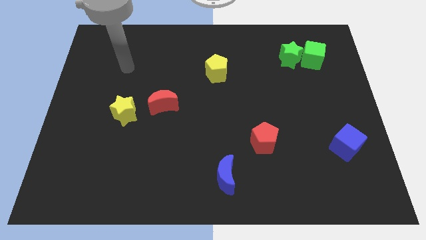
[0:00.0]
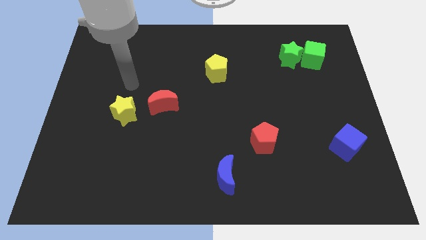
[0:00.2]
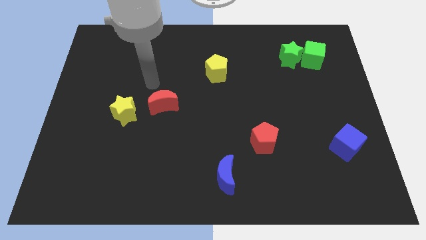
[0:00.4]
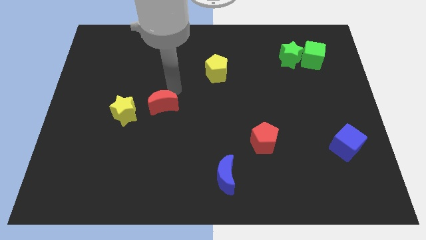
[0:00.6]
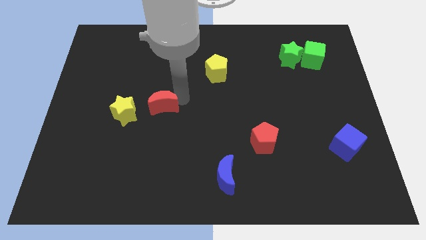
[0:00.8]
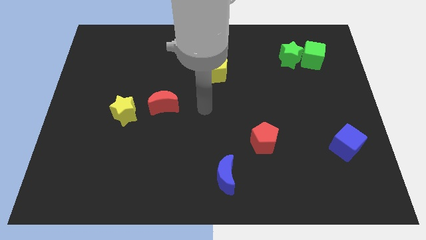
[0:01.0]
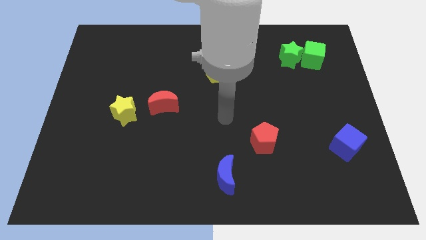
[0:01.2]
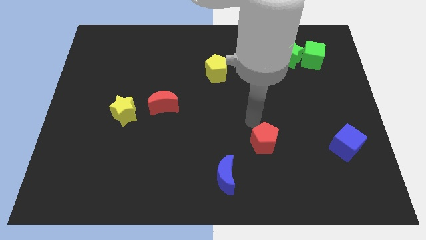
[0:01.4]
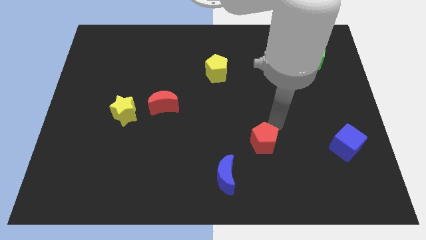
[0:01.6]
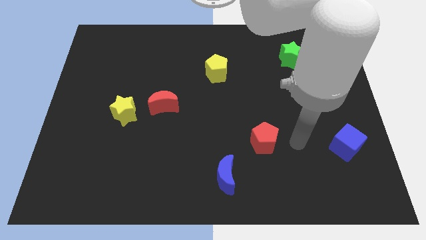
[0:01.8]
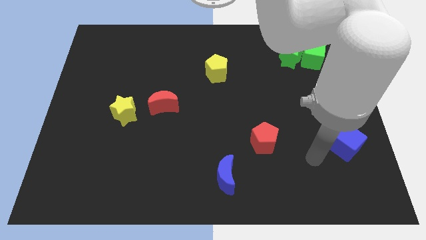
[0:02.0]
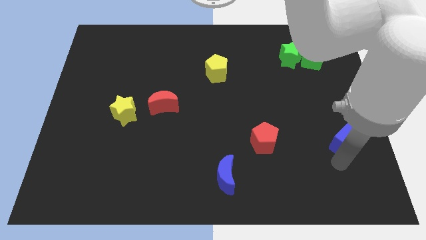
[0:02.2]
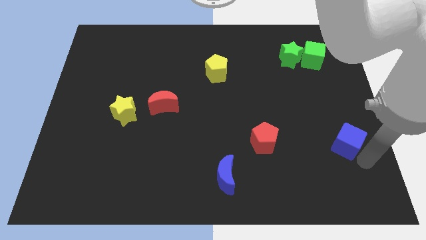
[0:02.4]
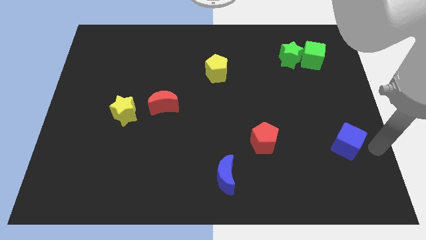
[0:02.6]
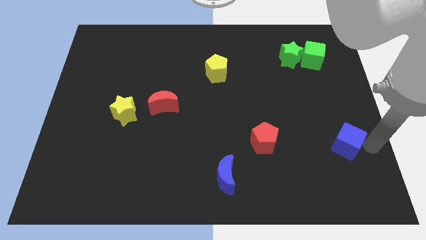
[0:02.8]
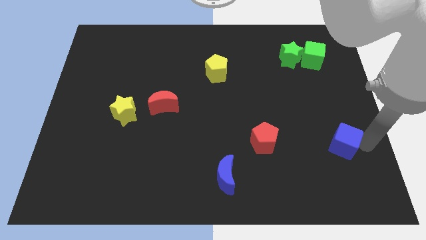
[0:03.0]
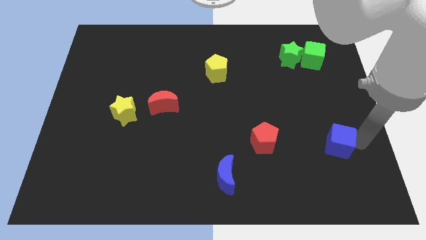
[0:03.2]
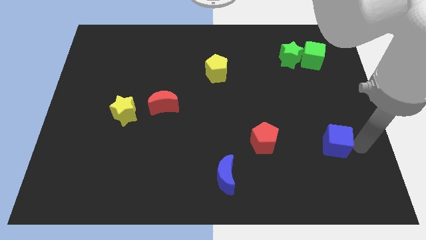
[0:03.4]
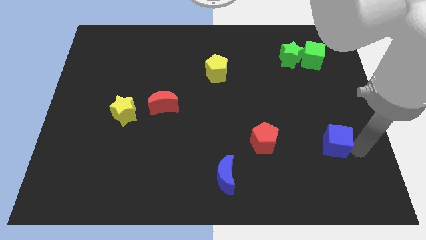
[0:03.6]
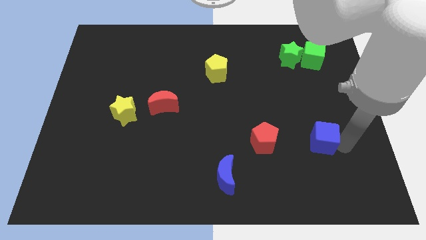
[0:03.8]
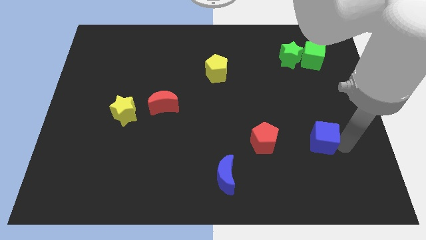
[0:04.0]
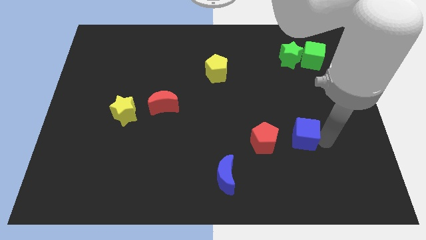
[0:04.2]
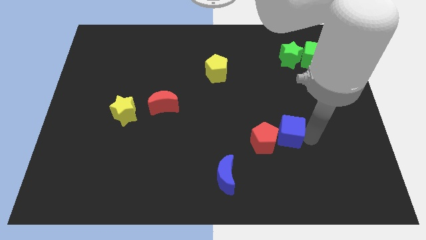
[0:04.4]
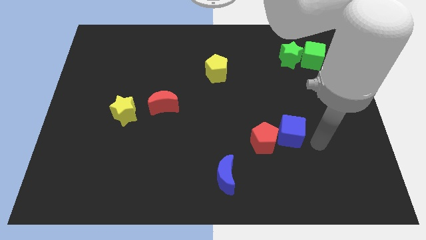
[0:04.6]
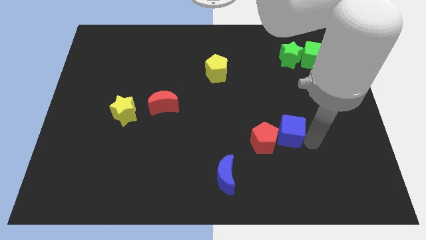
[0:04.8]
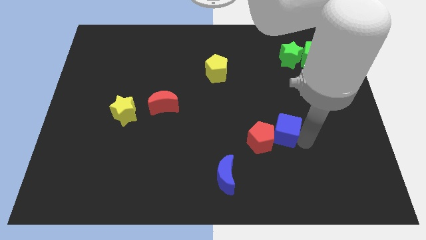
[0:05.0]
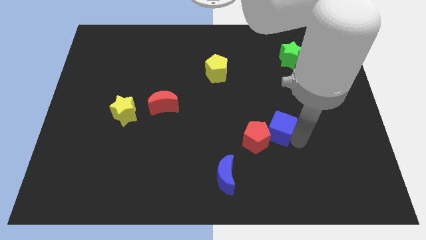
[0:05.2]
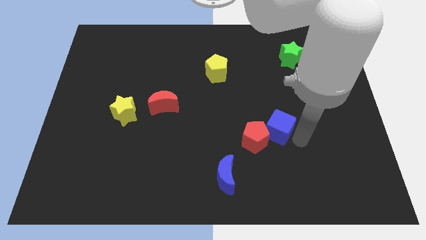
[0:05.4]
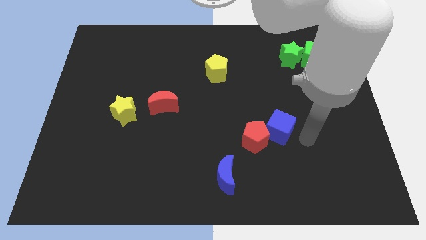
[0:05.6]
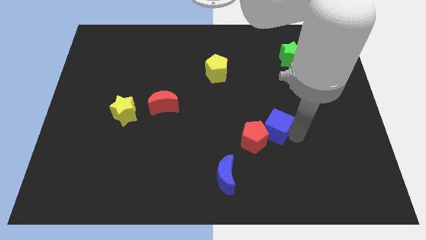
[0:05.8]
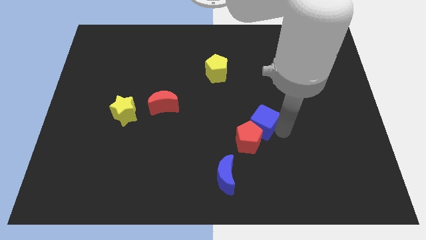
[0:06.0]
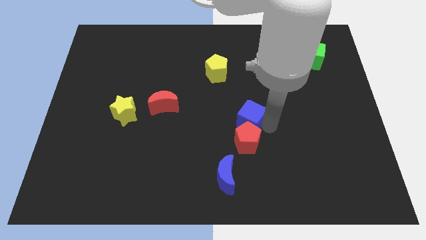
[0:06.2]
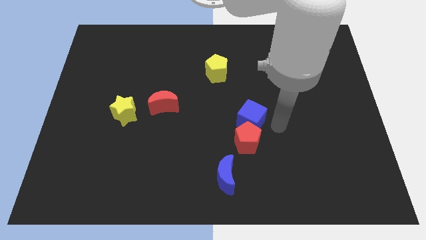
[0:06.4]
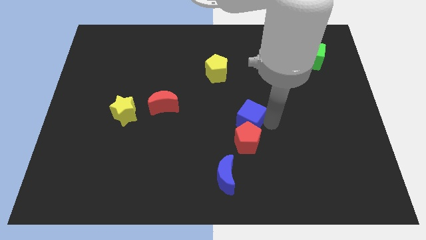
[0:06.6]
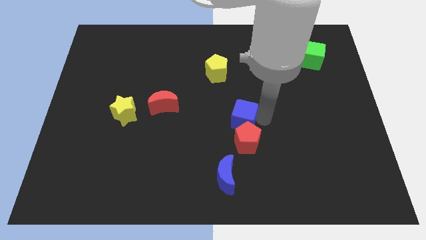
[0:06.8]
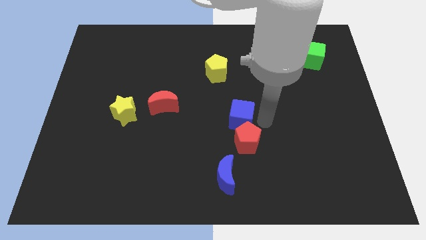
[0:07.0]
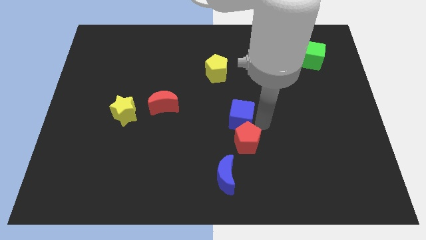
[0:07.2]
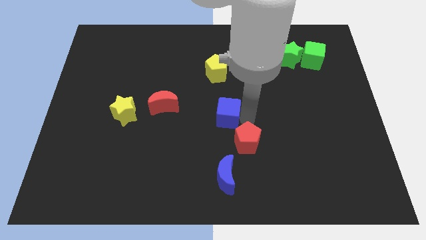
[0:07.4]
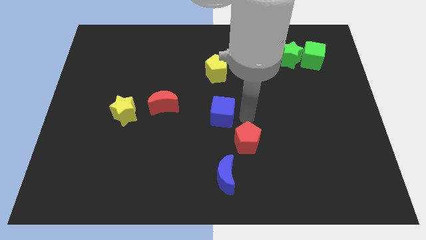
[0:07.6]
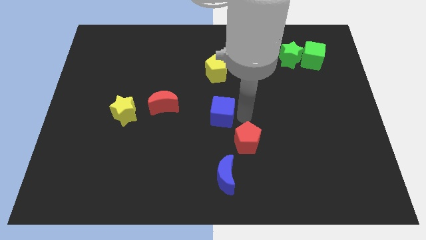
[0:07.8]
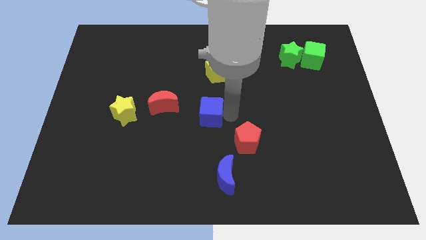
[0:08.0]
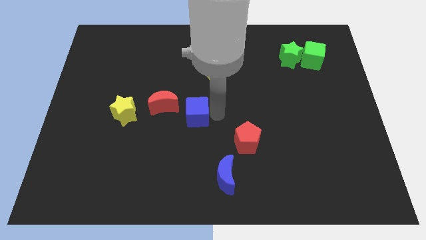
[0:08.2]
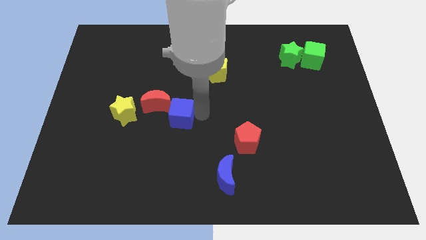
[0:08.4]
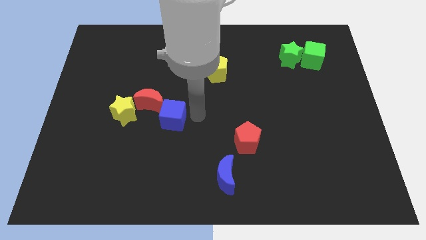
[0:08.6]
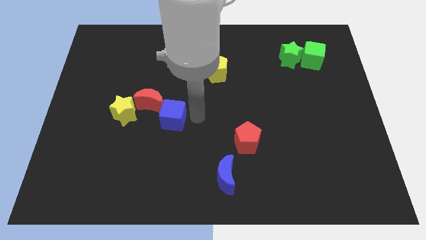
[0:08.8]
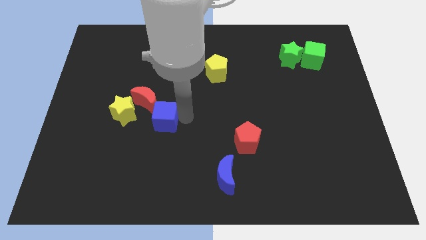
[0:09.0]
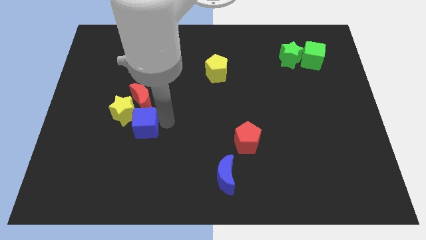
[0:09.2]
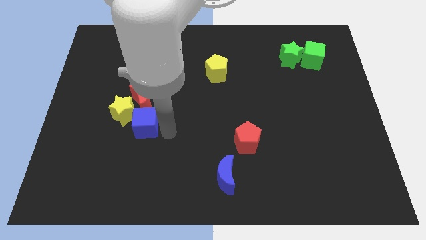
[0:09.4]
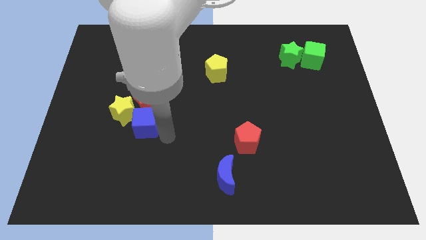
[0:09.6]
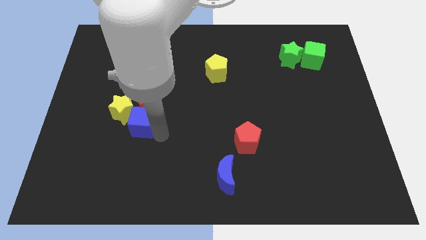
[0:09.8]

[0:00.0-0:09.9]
move the blue cube next to the yellow star

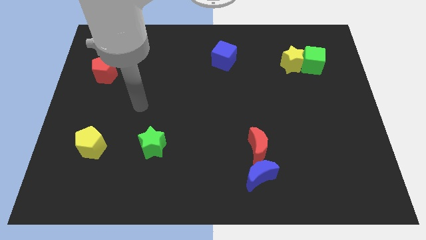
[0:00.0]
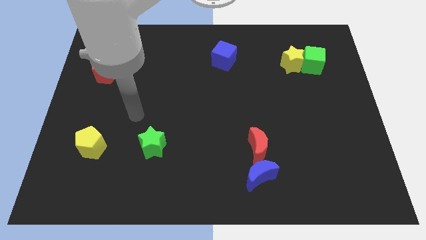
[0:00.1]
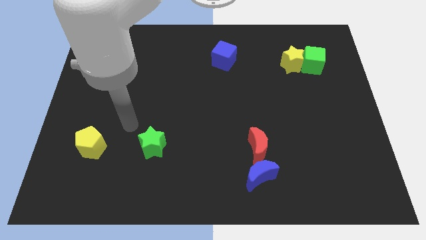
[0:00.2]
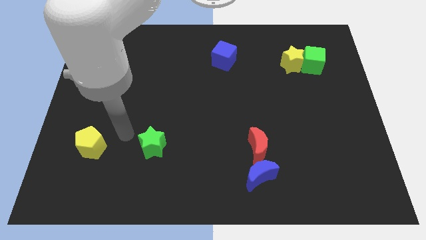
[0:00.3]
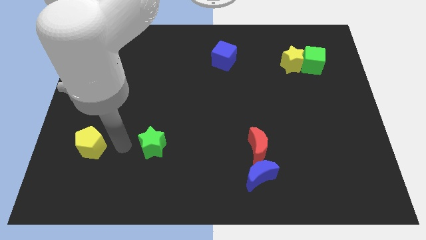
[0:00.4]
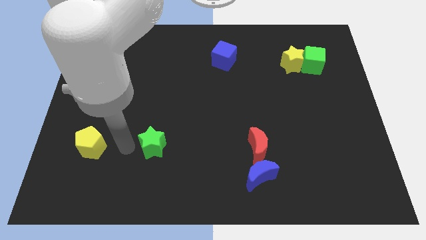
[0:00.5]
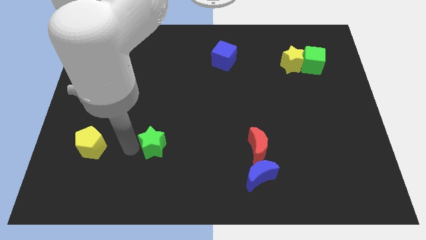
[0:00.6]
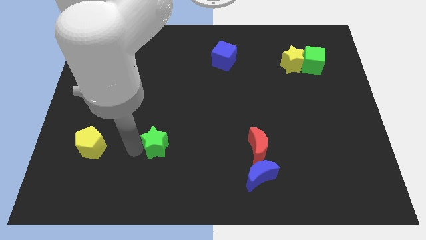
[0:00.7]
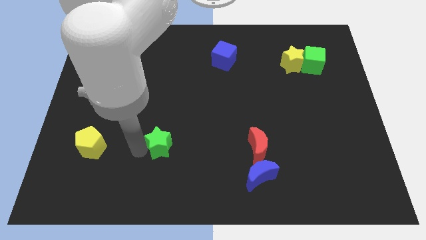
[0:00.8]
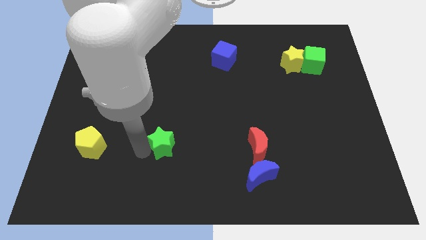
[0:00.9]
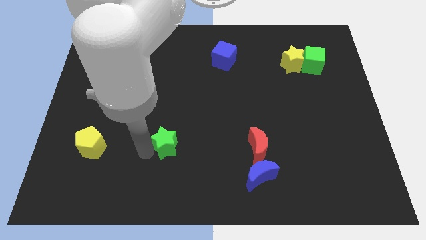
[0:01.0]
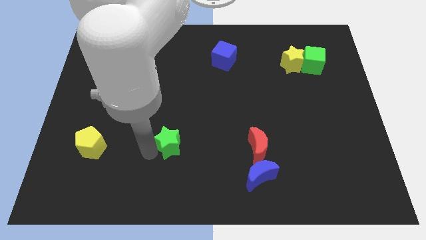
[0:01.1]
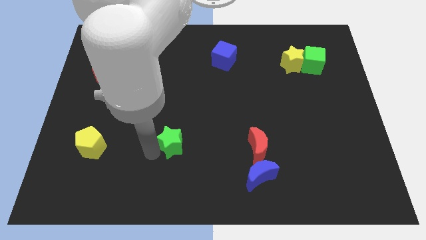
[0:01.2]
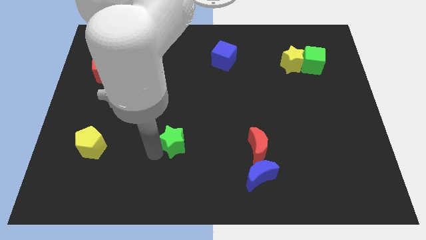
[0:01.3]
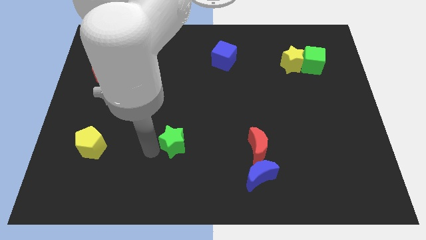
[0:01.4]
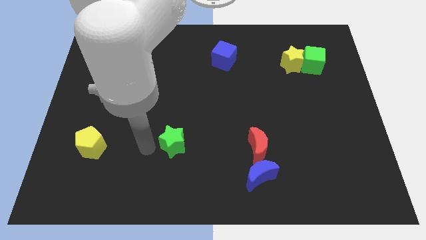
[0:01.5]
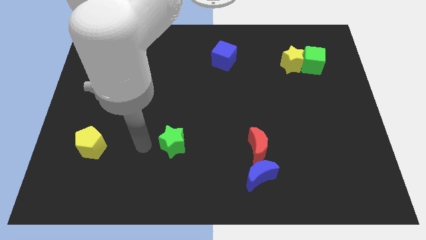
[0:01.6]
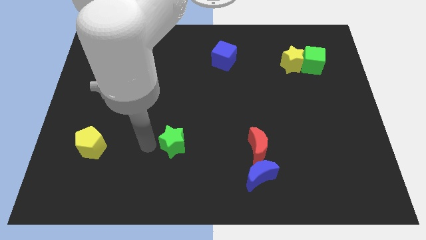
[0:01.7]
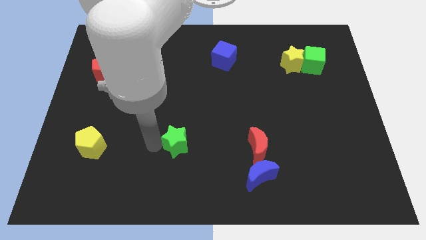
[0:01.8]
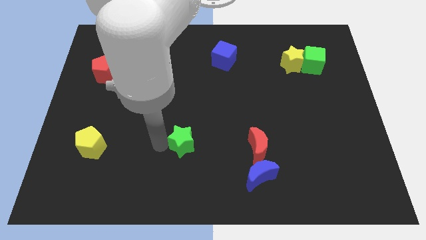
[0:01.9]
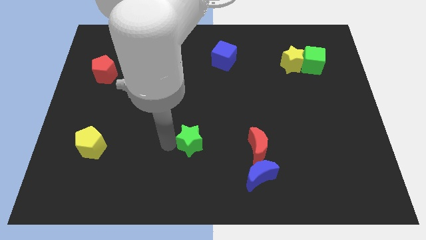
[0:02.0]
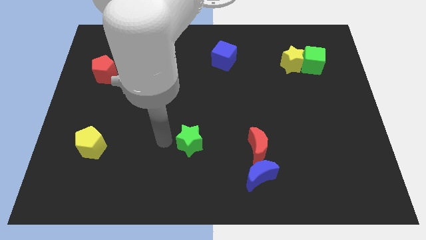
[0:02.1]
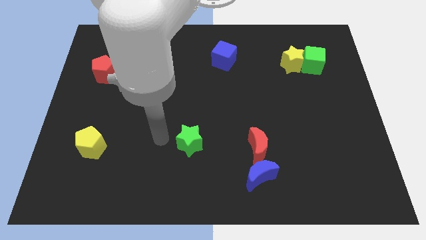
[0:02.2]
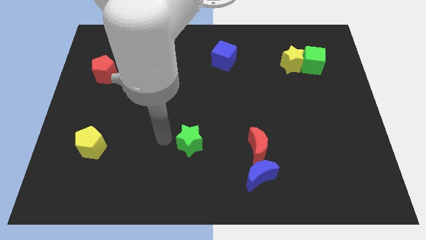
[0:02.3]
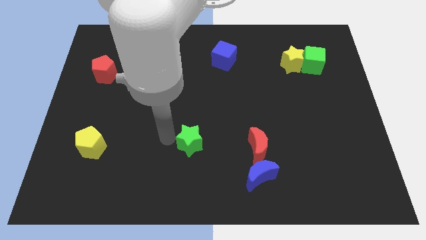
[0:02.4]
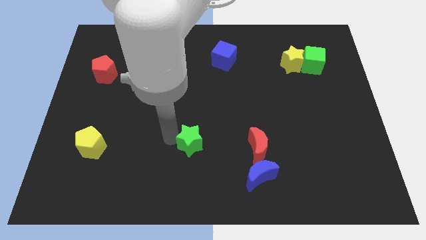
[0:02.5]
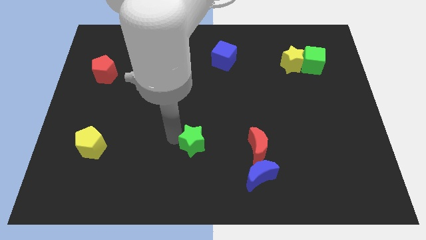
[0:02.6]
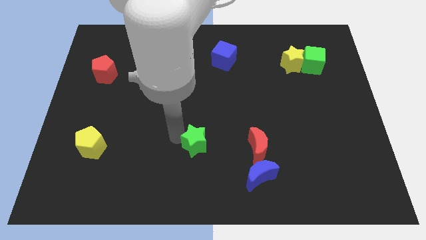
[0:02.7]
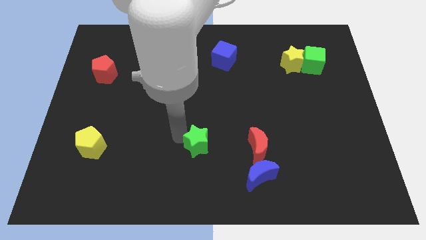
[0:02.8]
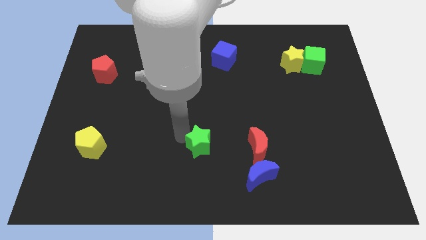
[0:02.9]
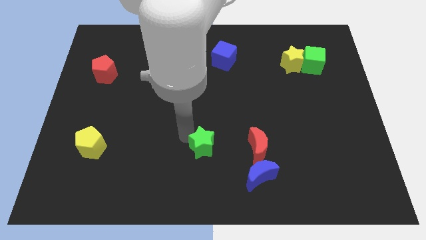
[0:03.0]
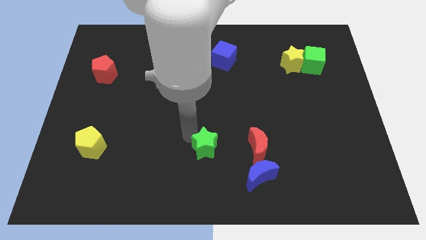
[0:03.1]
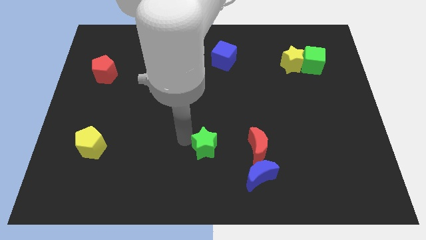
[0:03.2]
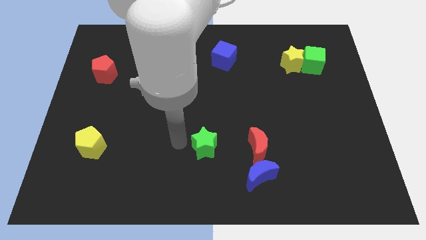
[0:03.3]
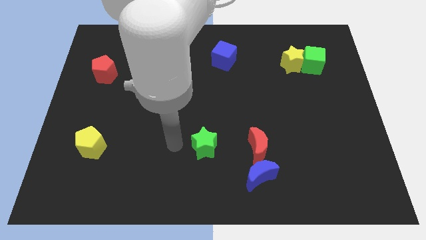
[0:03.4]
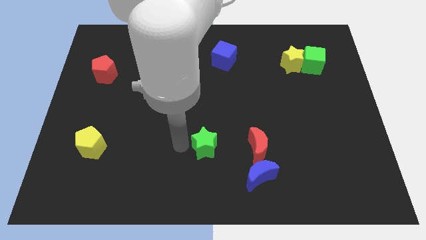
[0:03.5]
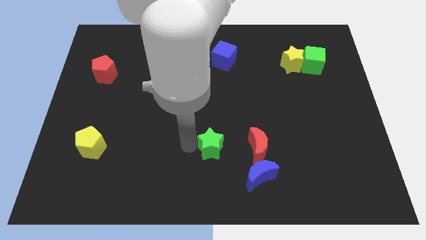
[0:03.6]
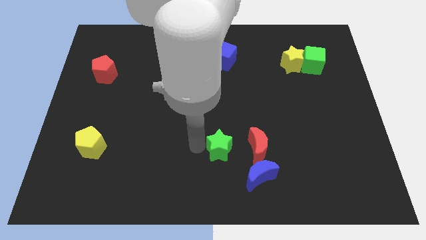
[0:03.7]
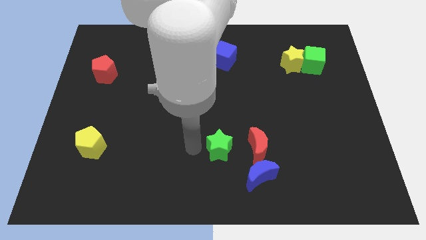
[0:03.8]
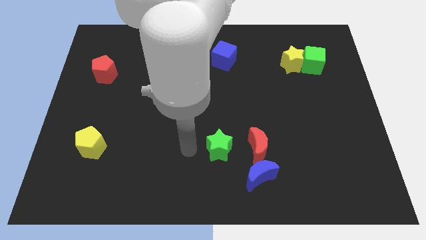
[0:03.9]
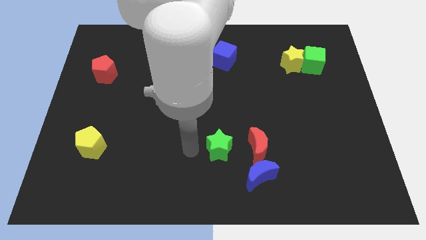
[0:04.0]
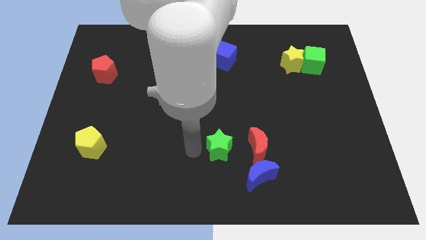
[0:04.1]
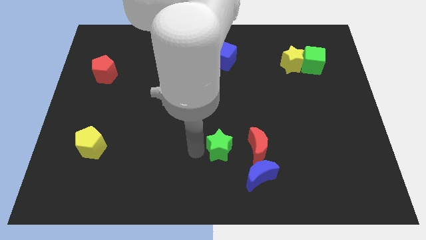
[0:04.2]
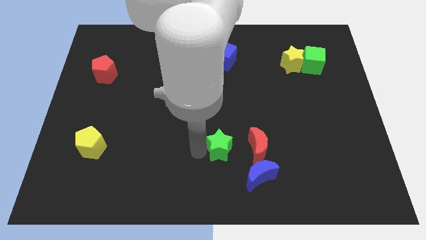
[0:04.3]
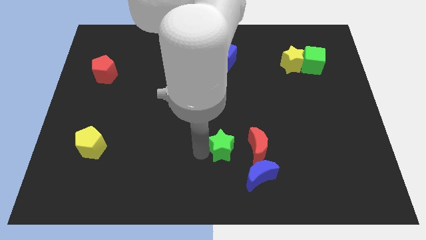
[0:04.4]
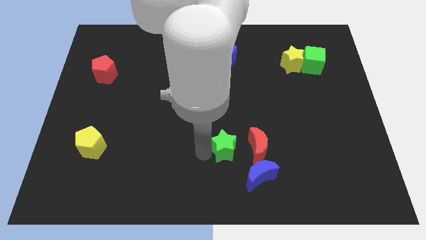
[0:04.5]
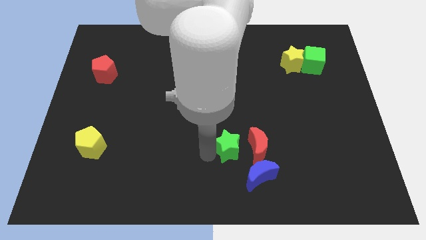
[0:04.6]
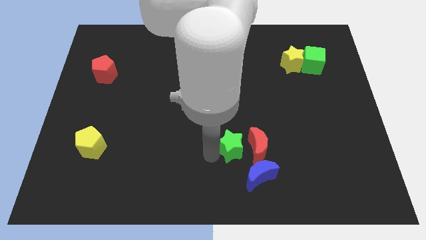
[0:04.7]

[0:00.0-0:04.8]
push the green star next to the red moon
